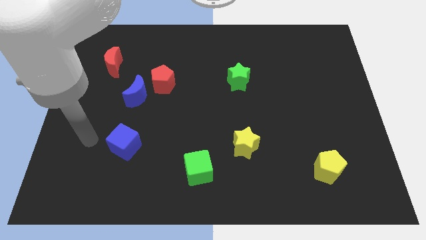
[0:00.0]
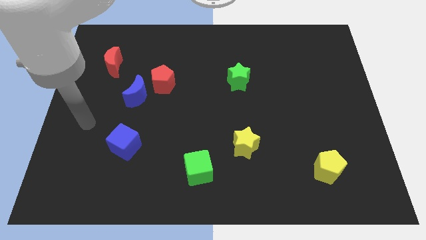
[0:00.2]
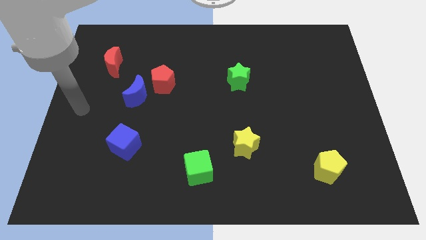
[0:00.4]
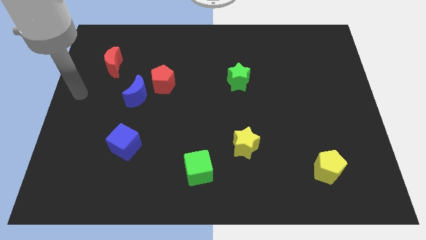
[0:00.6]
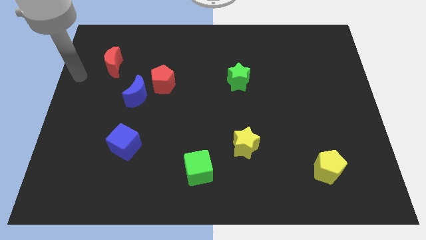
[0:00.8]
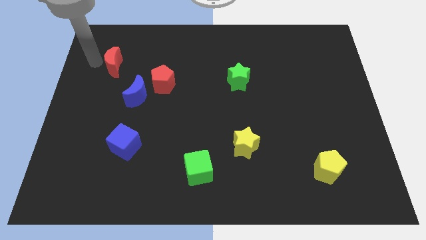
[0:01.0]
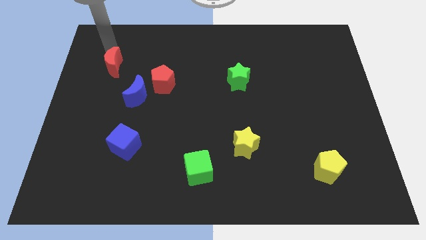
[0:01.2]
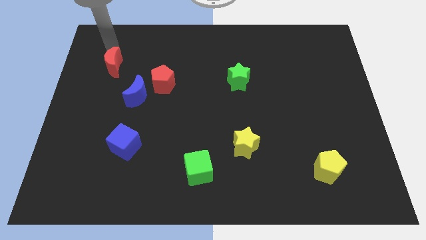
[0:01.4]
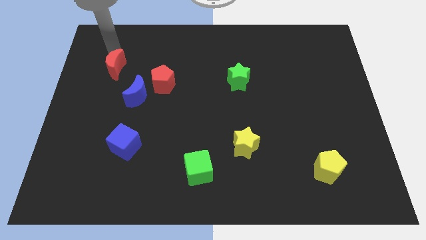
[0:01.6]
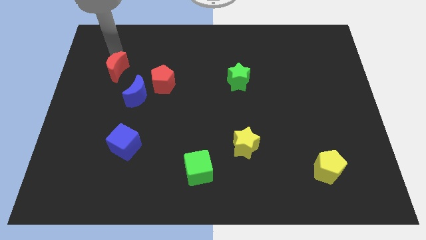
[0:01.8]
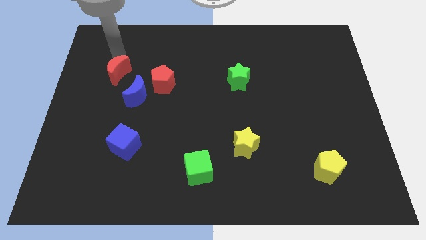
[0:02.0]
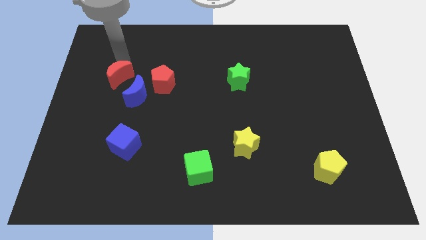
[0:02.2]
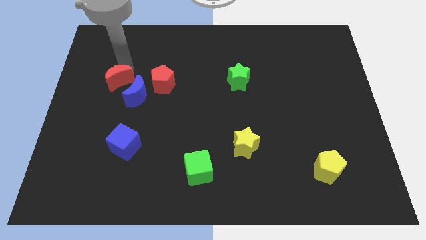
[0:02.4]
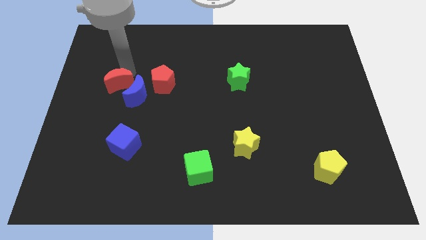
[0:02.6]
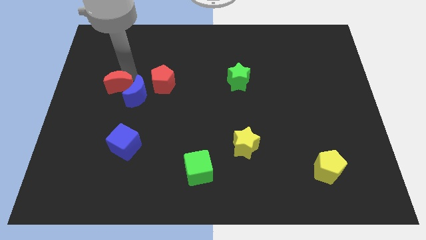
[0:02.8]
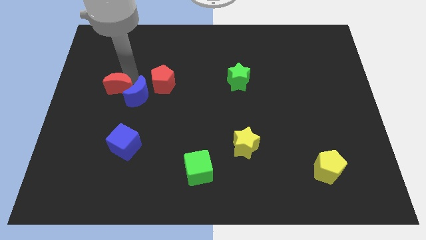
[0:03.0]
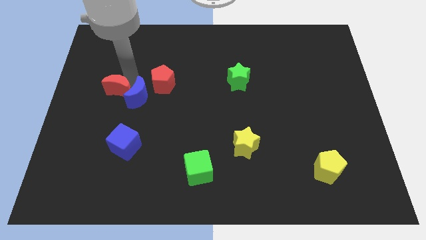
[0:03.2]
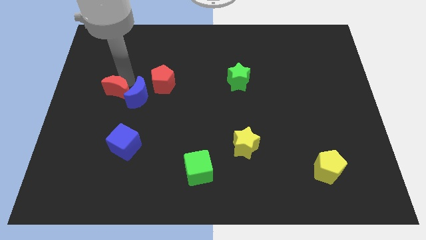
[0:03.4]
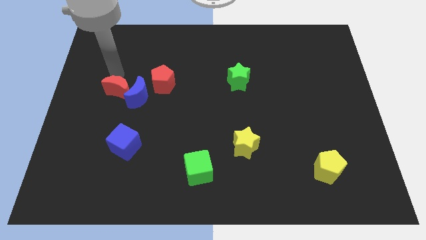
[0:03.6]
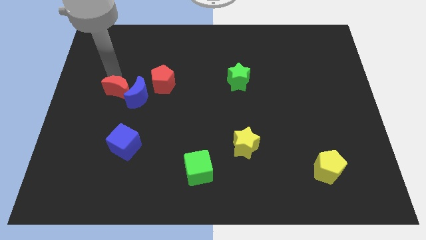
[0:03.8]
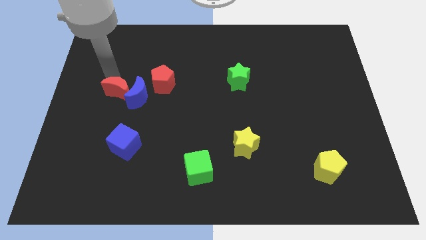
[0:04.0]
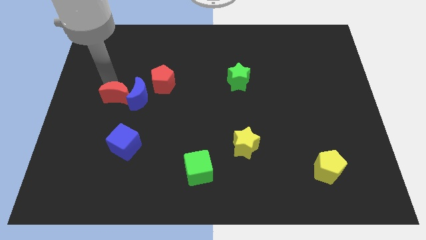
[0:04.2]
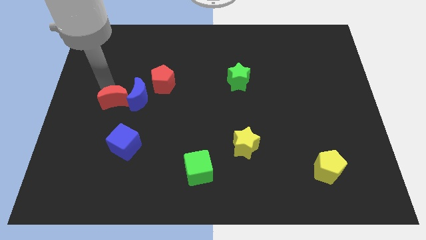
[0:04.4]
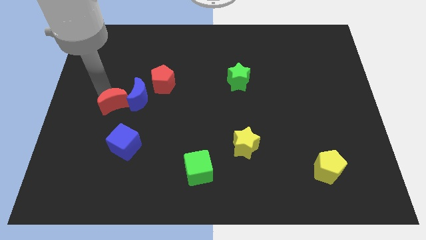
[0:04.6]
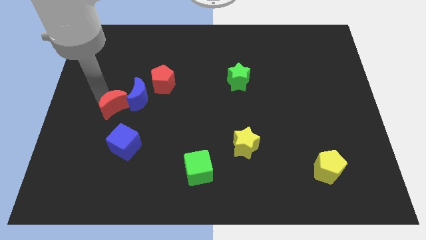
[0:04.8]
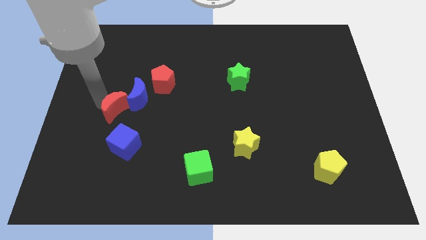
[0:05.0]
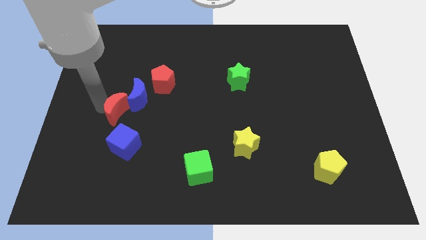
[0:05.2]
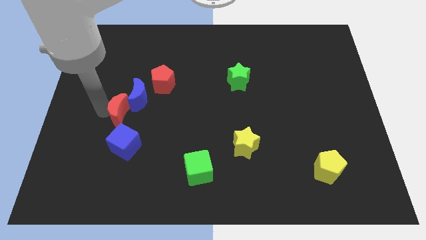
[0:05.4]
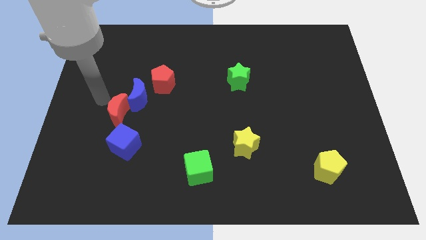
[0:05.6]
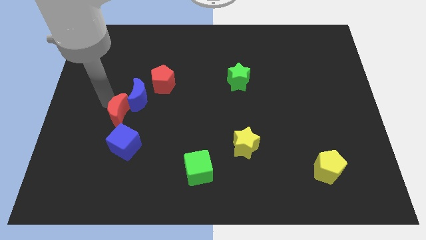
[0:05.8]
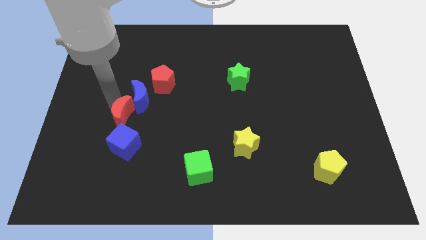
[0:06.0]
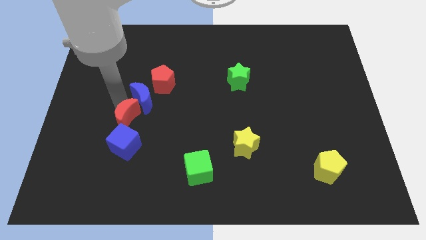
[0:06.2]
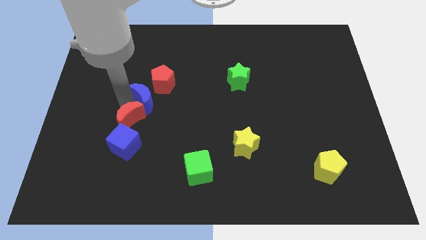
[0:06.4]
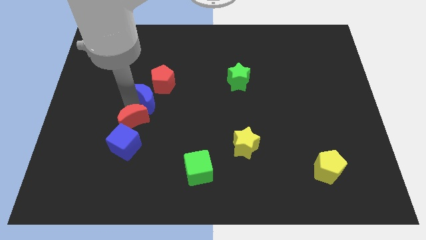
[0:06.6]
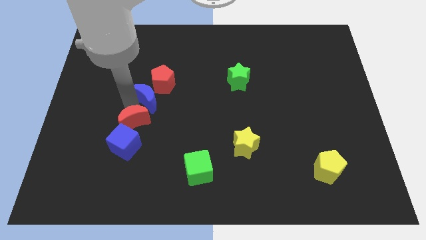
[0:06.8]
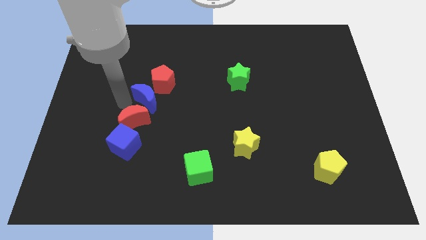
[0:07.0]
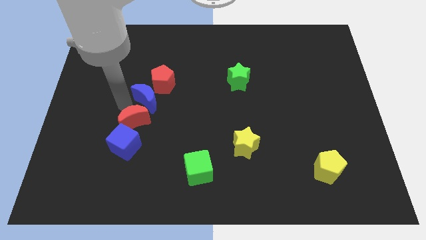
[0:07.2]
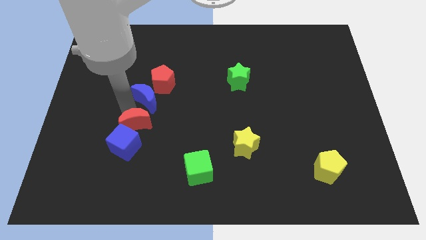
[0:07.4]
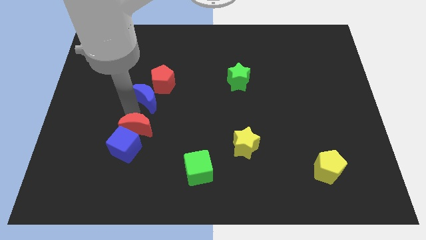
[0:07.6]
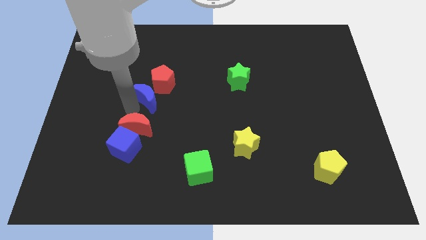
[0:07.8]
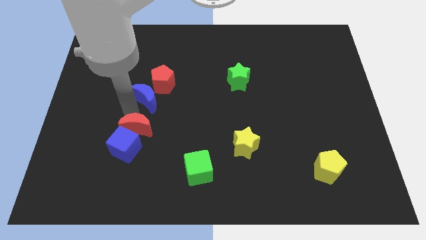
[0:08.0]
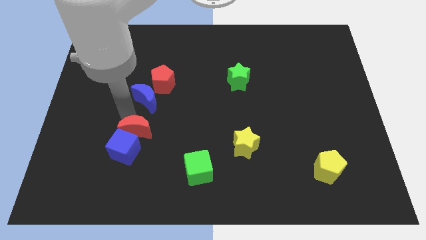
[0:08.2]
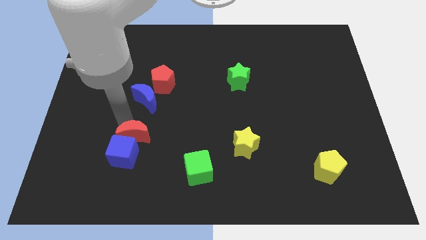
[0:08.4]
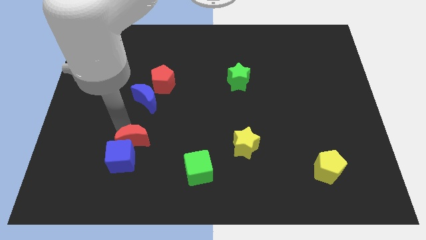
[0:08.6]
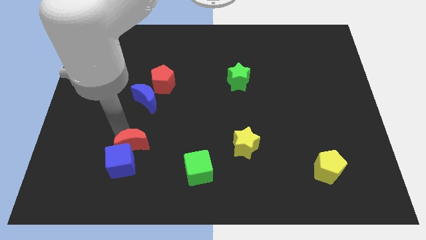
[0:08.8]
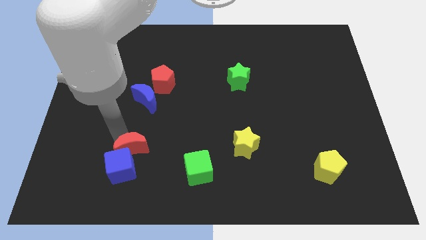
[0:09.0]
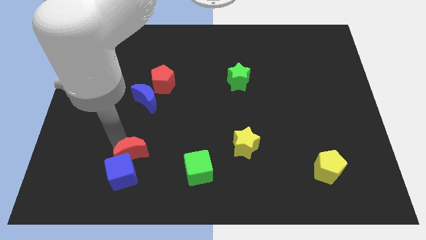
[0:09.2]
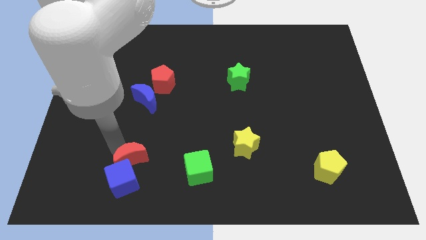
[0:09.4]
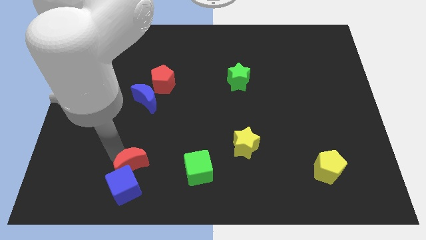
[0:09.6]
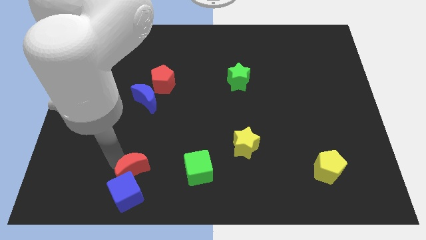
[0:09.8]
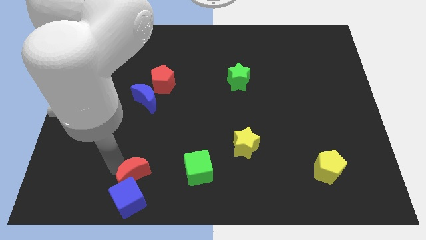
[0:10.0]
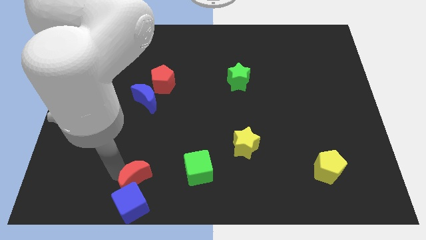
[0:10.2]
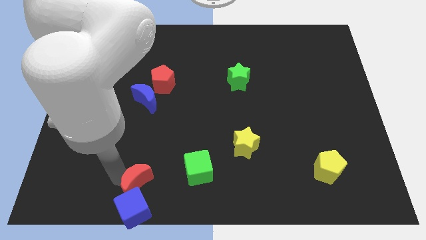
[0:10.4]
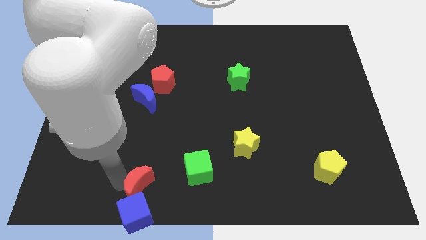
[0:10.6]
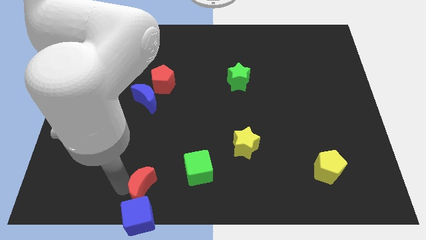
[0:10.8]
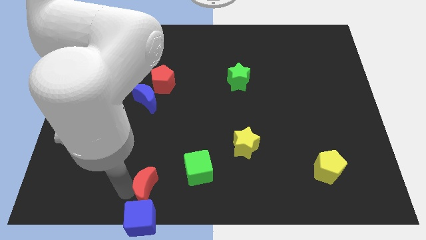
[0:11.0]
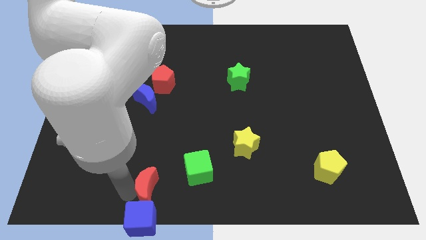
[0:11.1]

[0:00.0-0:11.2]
put the red moon to the bottom side
